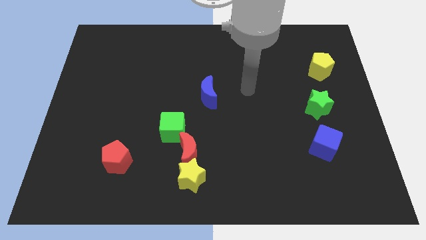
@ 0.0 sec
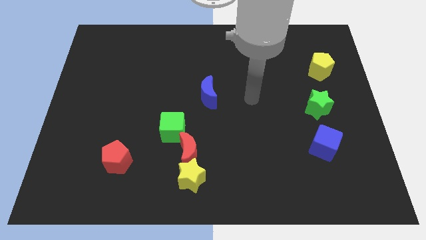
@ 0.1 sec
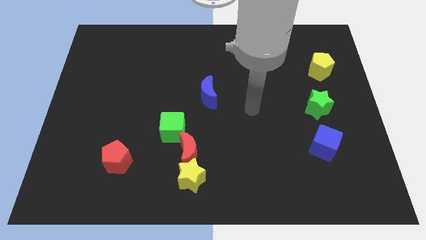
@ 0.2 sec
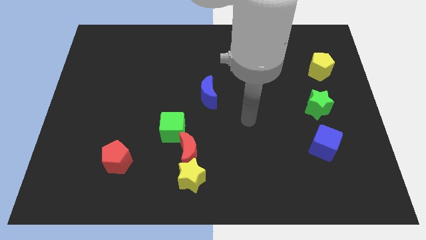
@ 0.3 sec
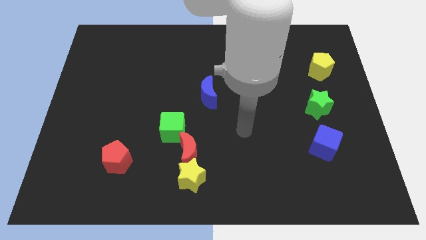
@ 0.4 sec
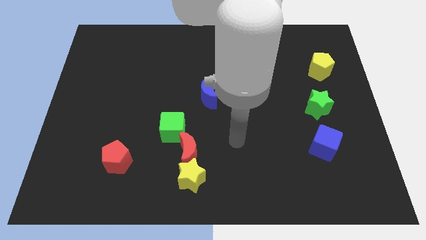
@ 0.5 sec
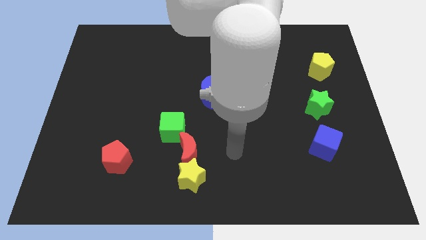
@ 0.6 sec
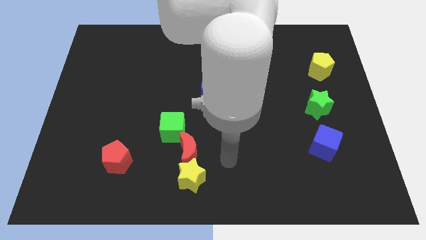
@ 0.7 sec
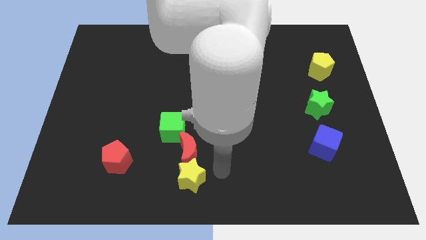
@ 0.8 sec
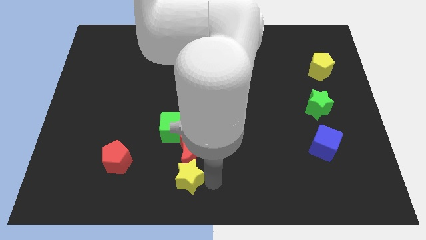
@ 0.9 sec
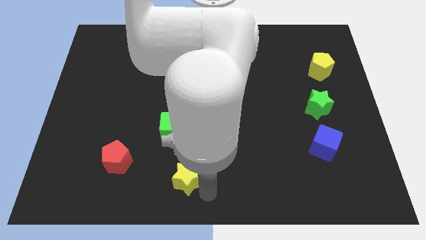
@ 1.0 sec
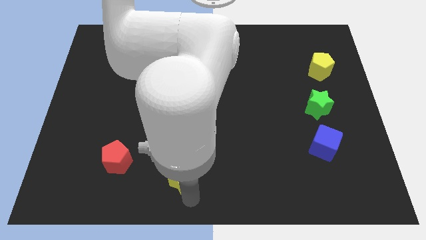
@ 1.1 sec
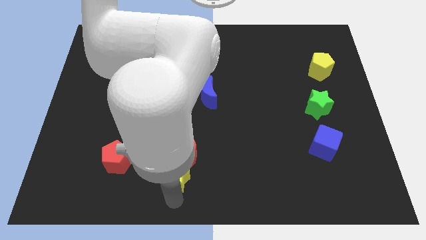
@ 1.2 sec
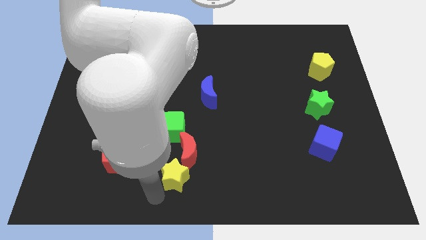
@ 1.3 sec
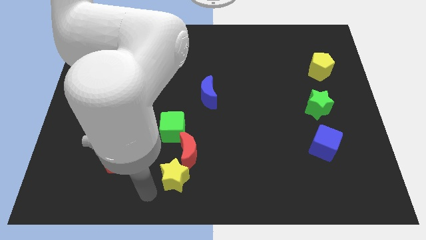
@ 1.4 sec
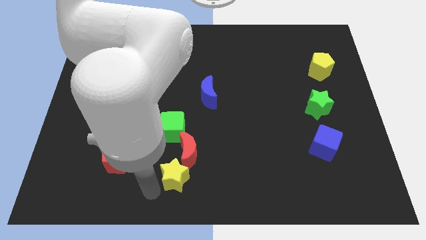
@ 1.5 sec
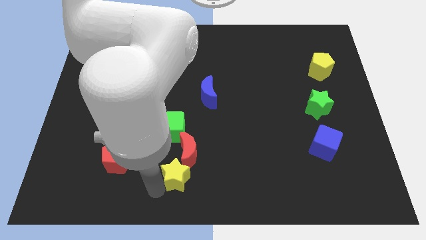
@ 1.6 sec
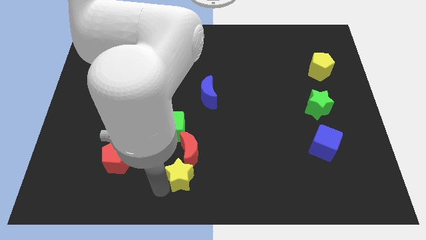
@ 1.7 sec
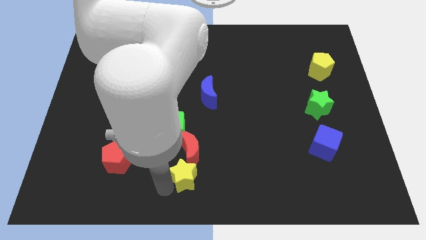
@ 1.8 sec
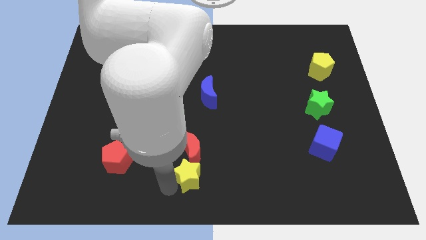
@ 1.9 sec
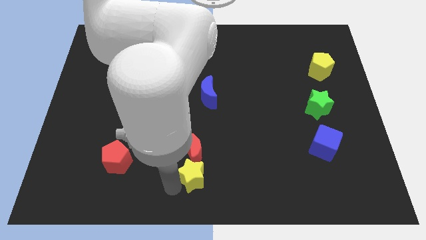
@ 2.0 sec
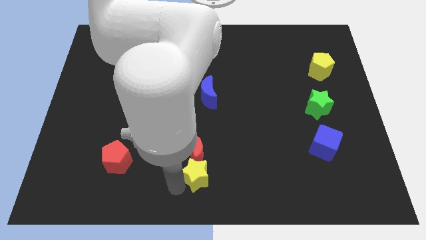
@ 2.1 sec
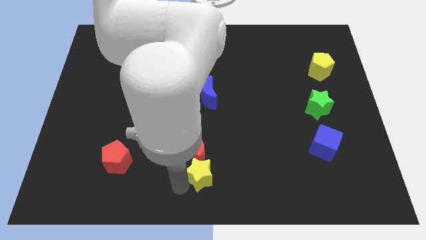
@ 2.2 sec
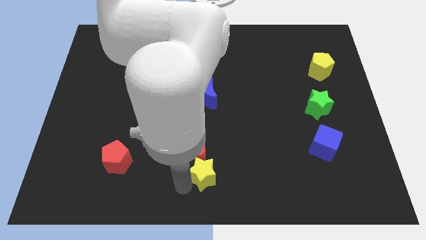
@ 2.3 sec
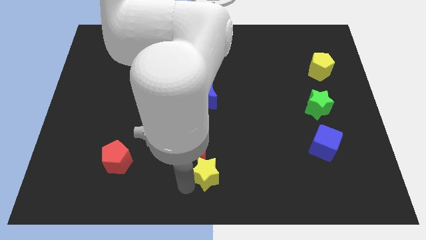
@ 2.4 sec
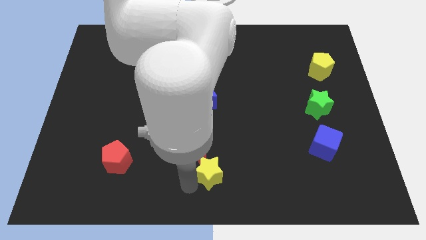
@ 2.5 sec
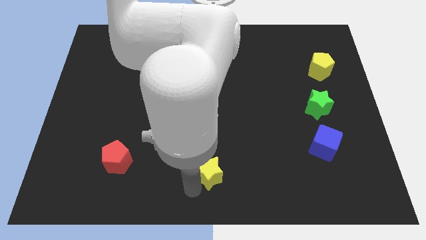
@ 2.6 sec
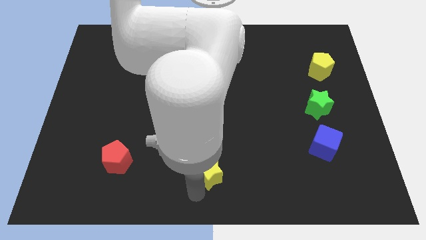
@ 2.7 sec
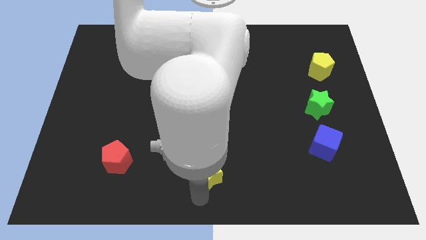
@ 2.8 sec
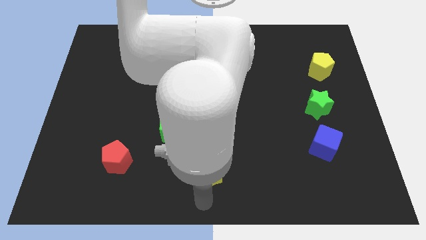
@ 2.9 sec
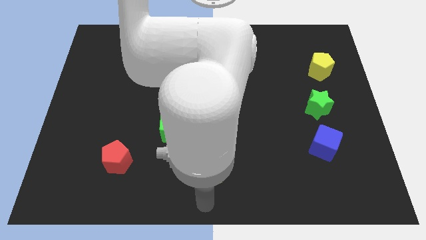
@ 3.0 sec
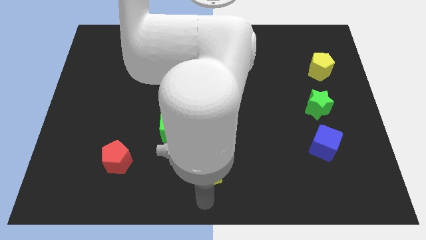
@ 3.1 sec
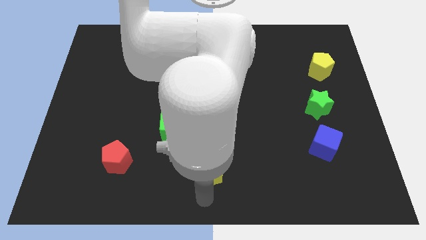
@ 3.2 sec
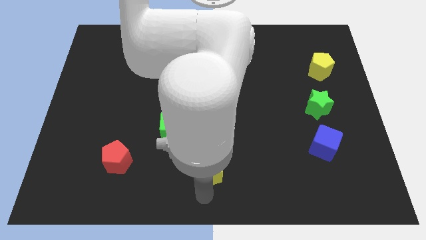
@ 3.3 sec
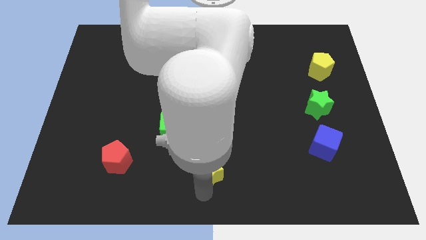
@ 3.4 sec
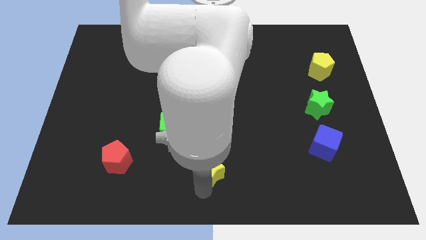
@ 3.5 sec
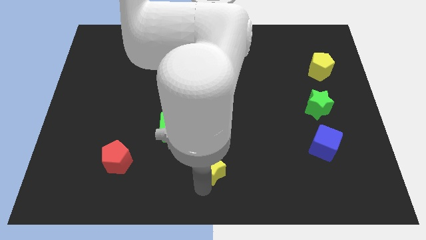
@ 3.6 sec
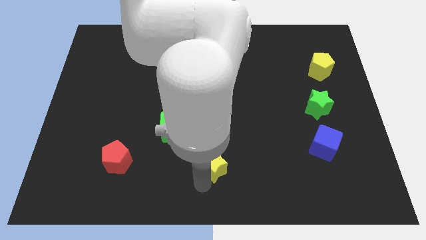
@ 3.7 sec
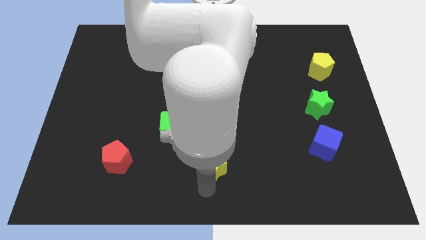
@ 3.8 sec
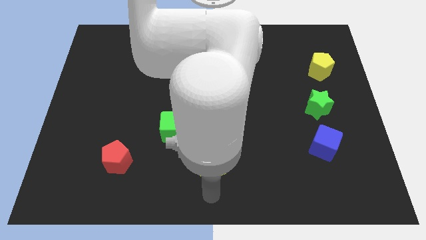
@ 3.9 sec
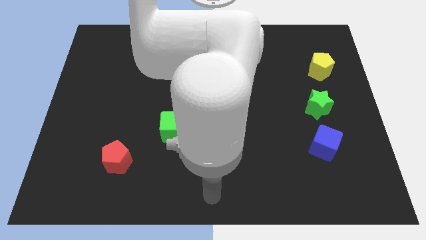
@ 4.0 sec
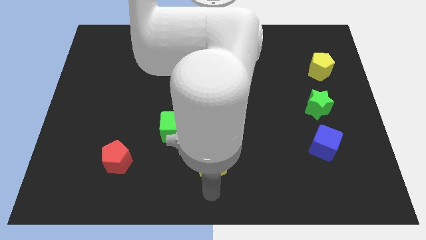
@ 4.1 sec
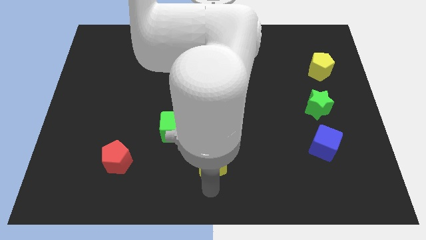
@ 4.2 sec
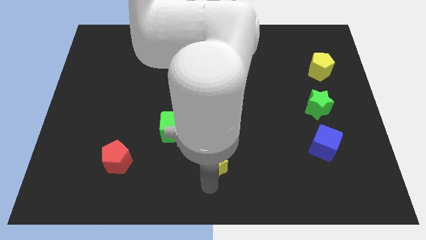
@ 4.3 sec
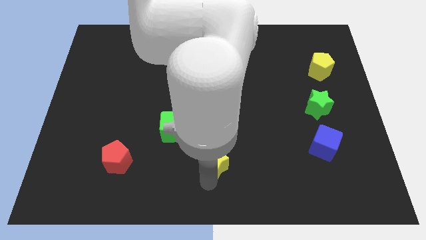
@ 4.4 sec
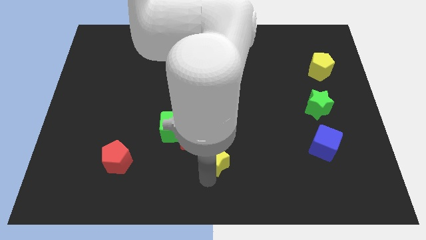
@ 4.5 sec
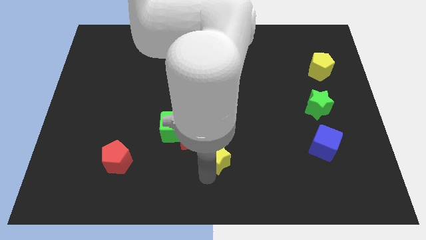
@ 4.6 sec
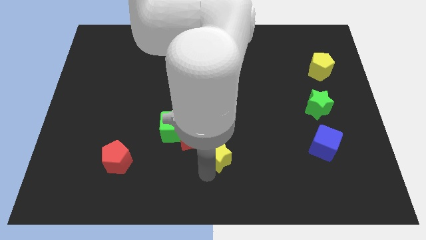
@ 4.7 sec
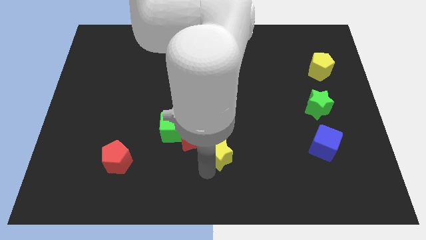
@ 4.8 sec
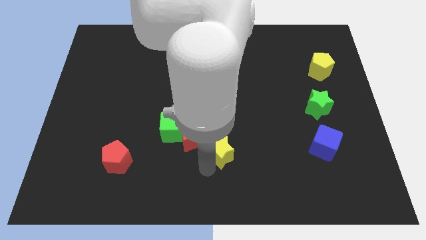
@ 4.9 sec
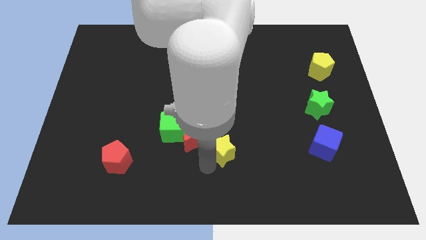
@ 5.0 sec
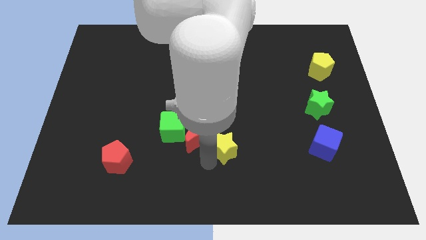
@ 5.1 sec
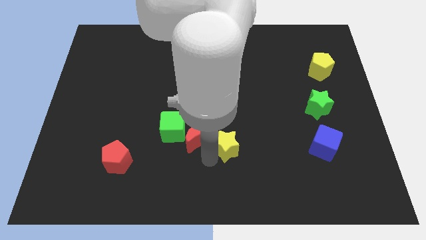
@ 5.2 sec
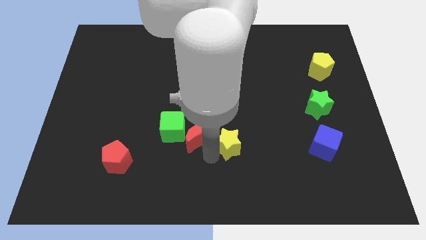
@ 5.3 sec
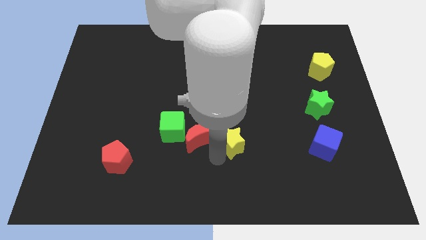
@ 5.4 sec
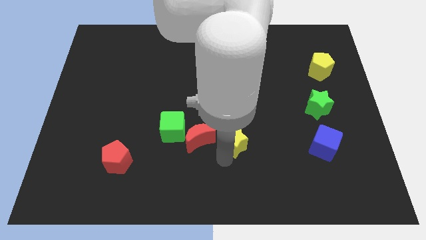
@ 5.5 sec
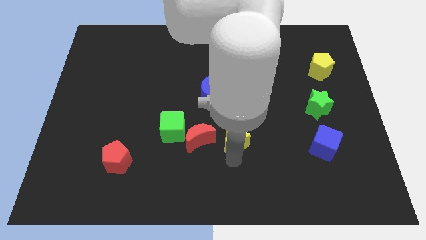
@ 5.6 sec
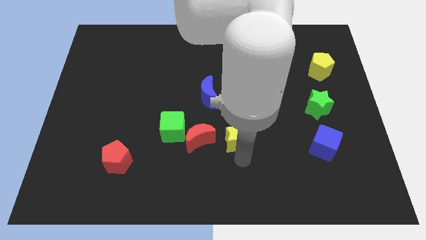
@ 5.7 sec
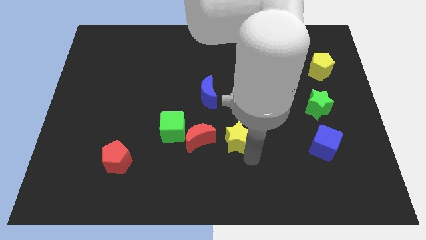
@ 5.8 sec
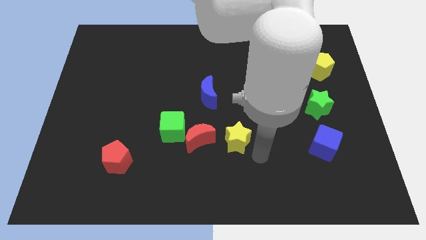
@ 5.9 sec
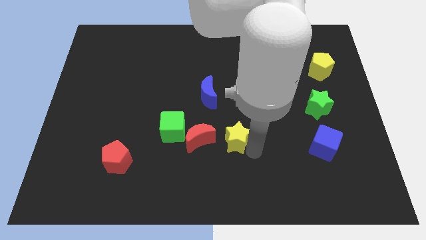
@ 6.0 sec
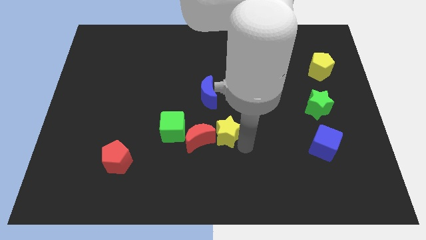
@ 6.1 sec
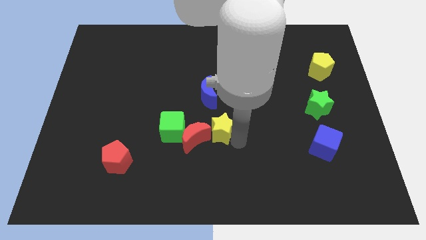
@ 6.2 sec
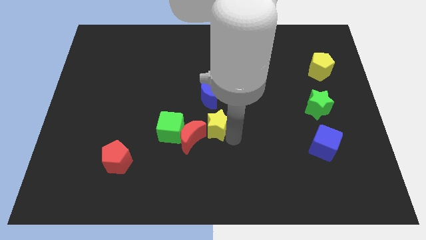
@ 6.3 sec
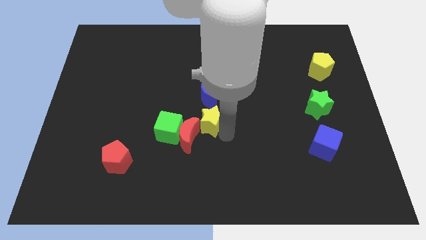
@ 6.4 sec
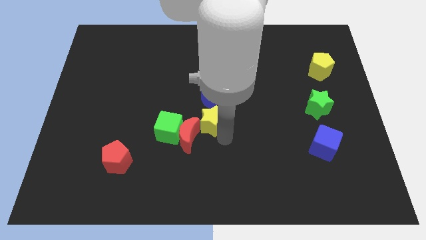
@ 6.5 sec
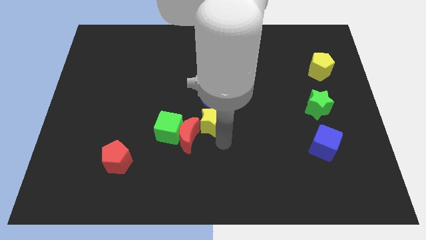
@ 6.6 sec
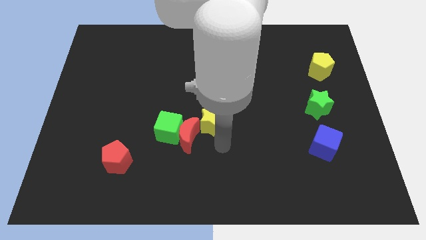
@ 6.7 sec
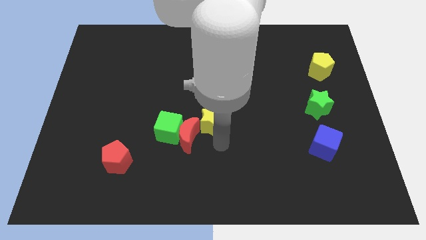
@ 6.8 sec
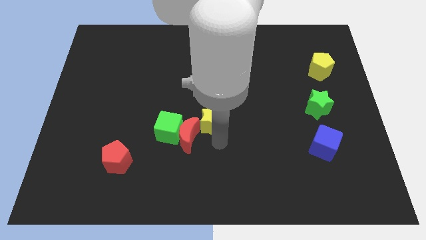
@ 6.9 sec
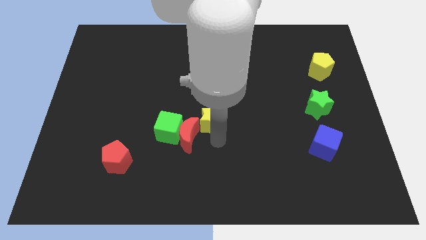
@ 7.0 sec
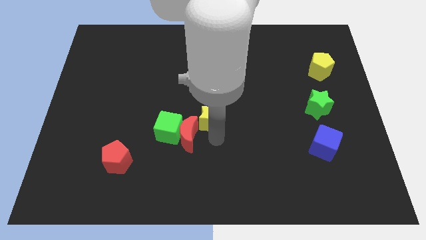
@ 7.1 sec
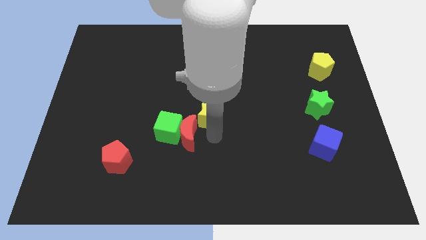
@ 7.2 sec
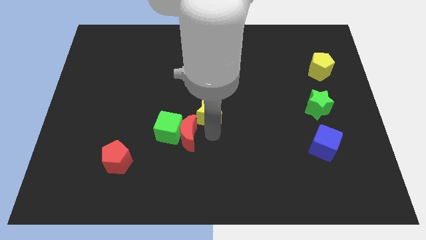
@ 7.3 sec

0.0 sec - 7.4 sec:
move the yellow star to the blue moon

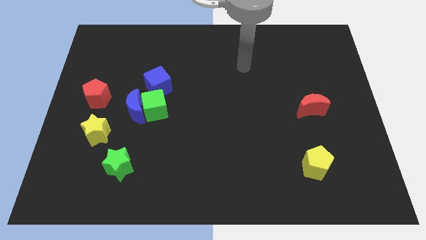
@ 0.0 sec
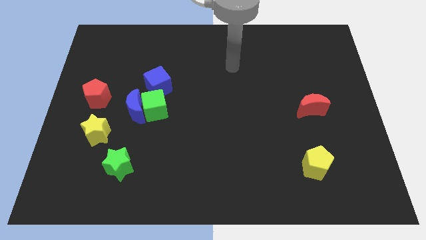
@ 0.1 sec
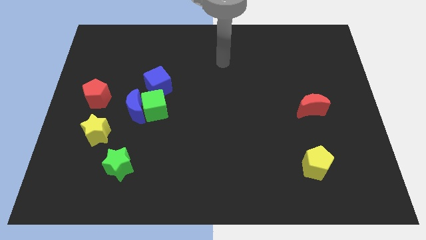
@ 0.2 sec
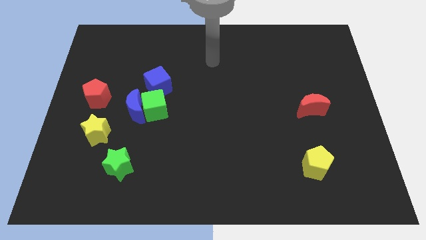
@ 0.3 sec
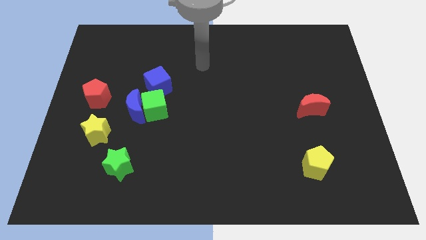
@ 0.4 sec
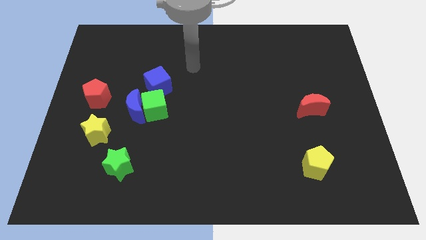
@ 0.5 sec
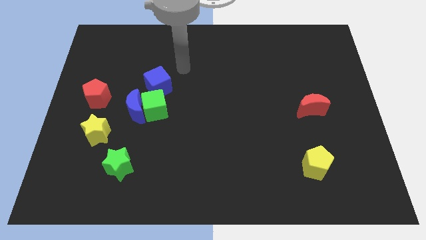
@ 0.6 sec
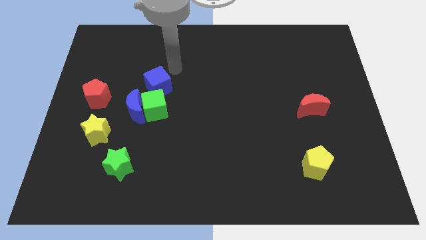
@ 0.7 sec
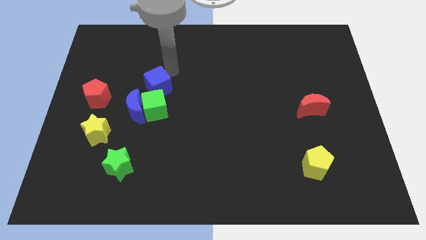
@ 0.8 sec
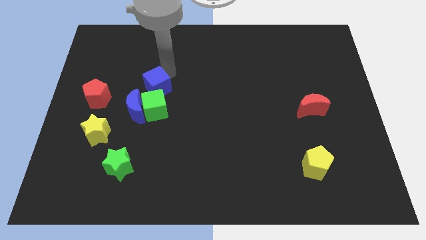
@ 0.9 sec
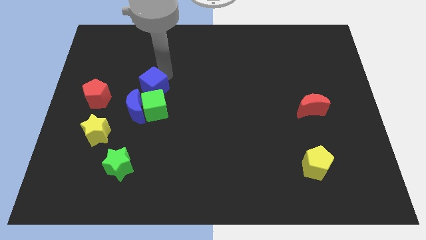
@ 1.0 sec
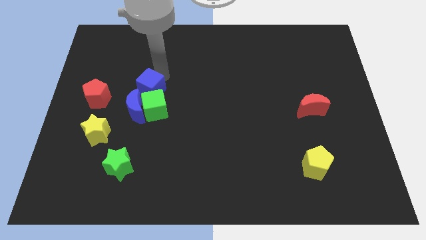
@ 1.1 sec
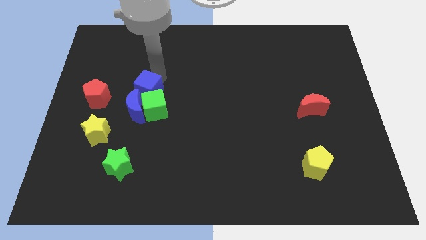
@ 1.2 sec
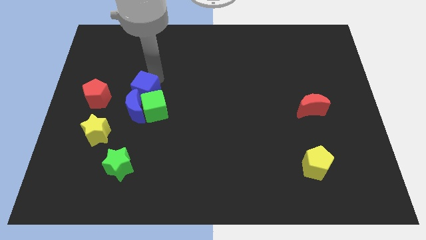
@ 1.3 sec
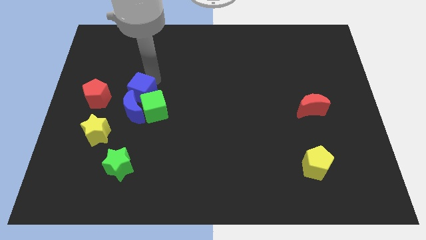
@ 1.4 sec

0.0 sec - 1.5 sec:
put the blue cube to the blue moon
